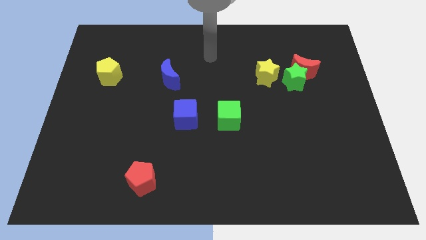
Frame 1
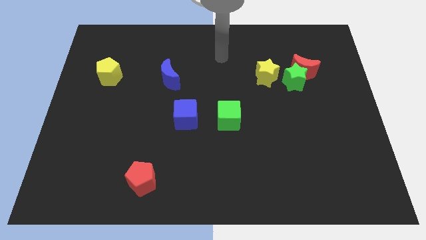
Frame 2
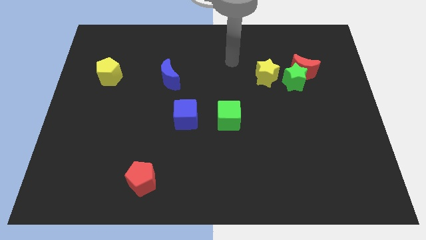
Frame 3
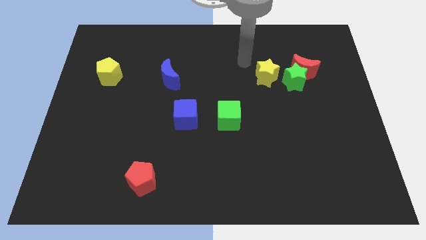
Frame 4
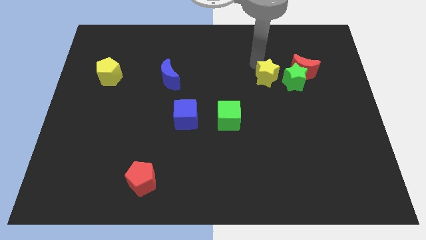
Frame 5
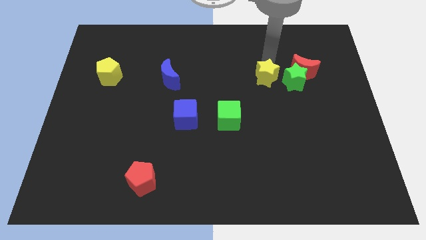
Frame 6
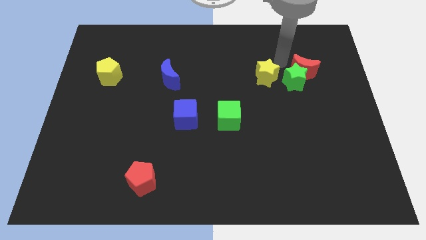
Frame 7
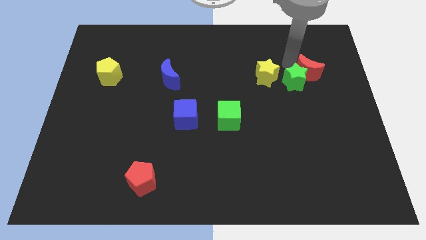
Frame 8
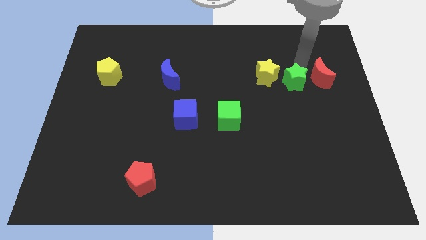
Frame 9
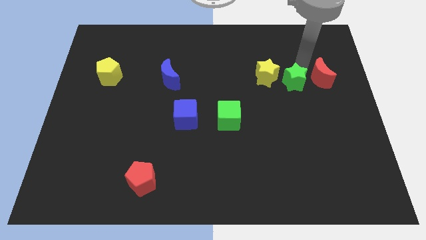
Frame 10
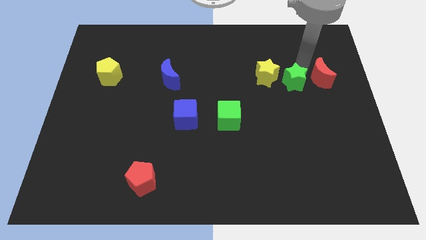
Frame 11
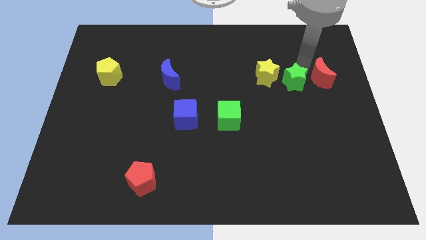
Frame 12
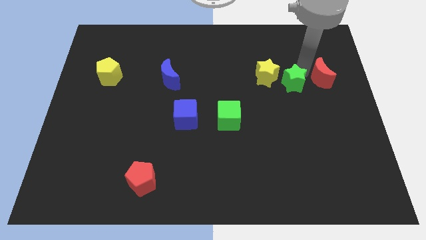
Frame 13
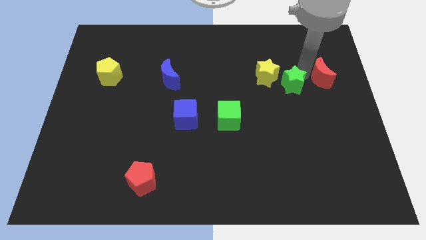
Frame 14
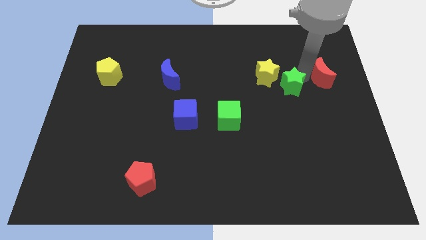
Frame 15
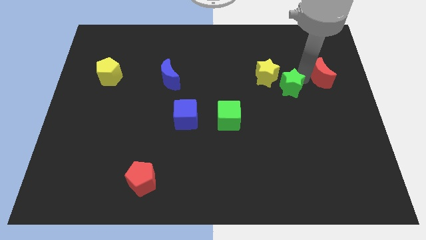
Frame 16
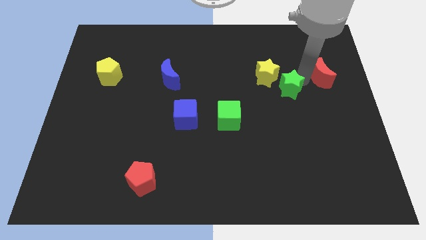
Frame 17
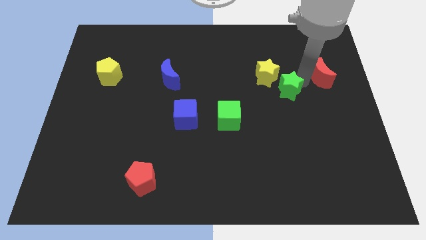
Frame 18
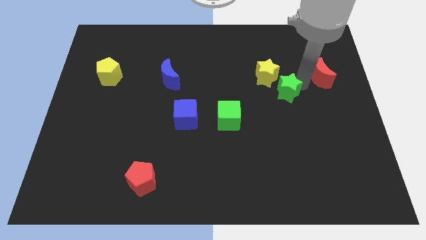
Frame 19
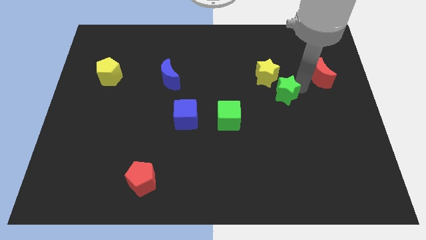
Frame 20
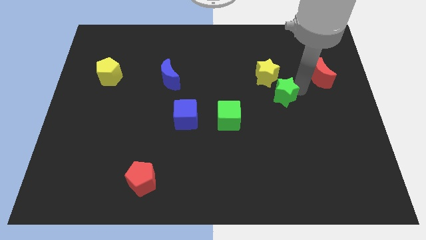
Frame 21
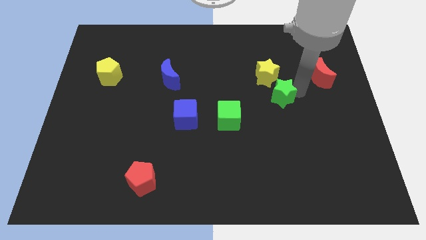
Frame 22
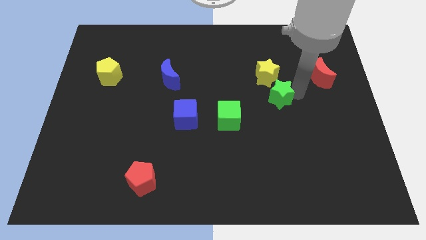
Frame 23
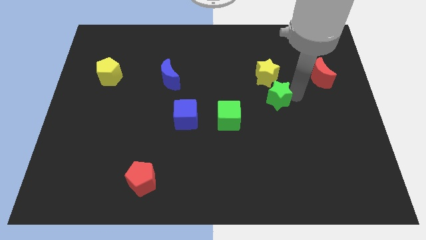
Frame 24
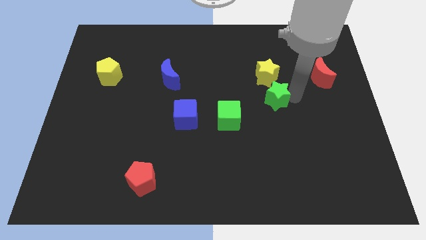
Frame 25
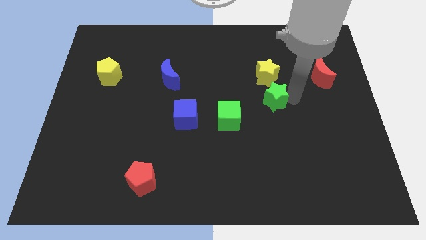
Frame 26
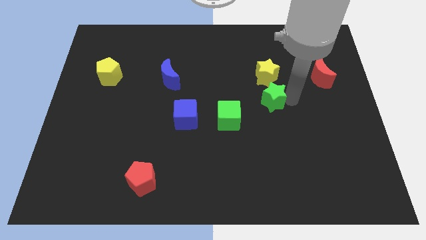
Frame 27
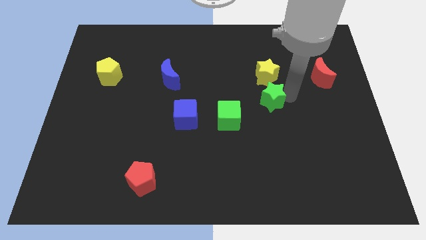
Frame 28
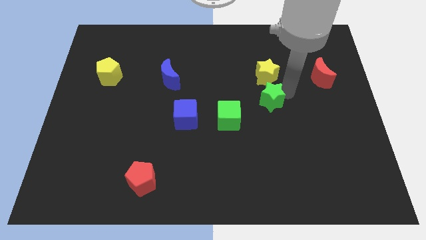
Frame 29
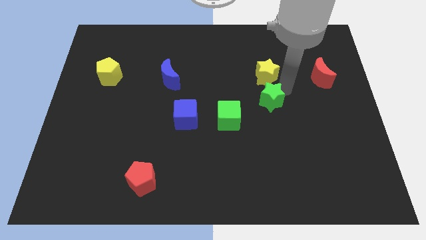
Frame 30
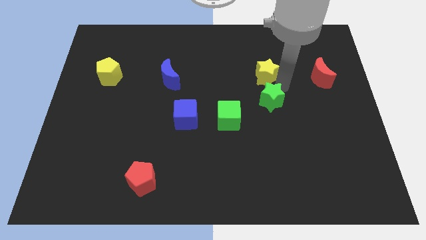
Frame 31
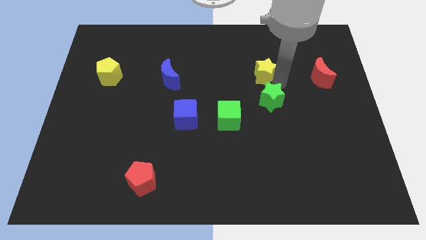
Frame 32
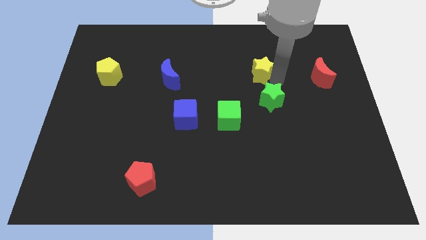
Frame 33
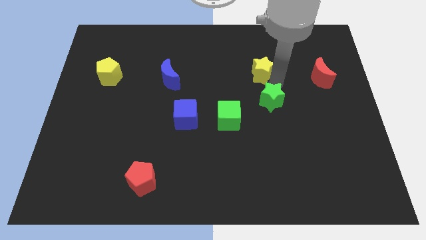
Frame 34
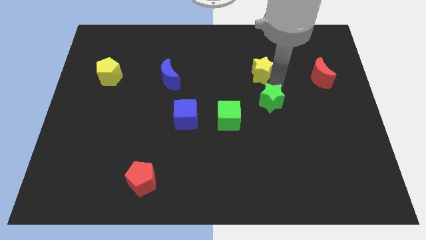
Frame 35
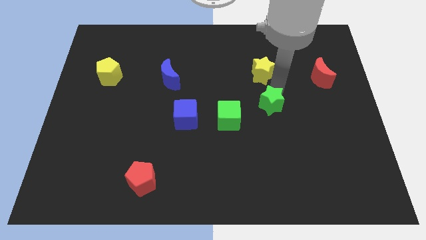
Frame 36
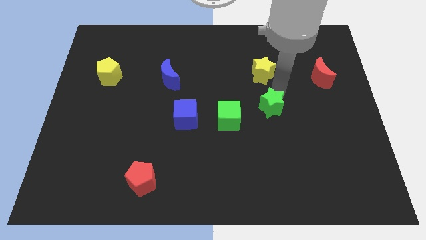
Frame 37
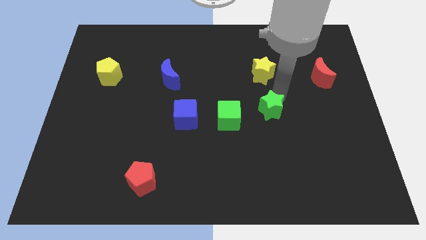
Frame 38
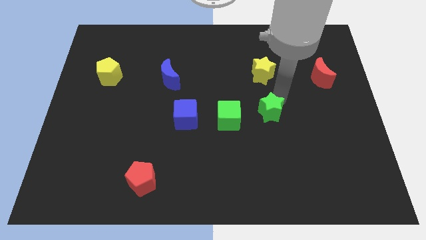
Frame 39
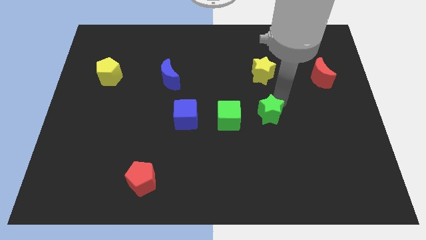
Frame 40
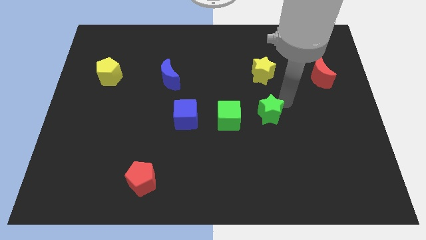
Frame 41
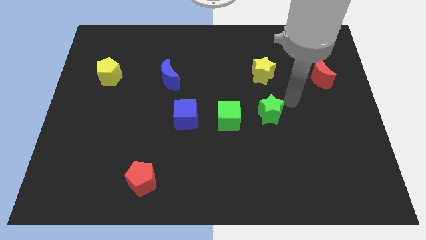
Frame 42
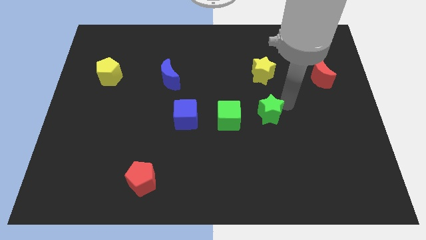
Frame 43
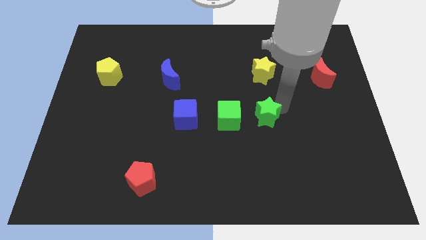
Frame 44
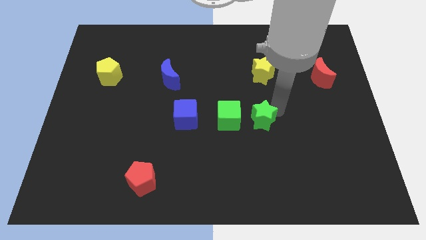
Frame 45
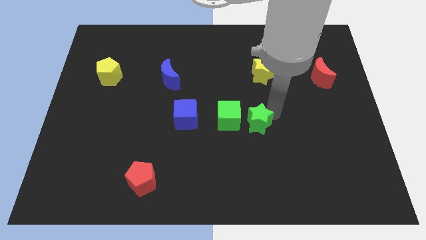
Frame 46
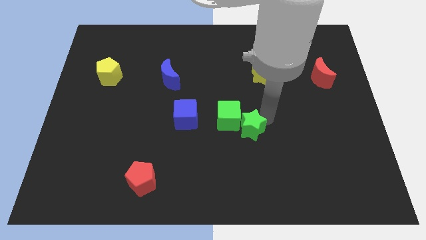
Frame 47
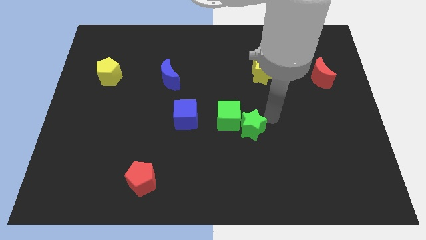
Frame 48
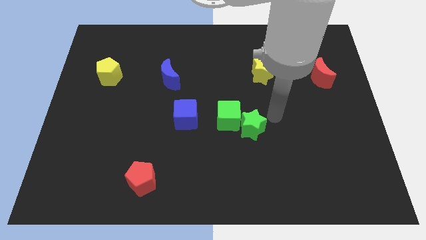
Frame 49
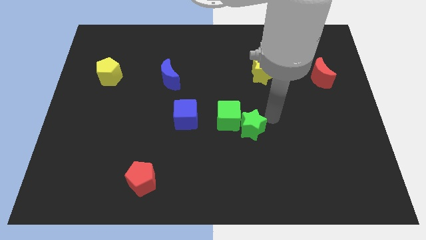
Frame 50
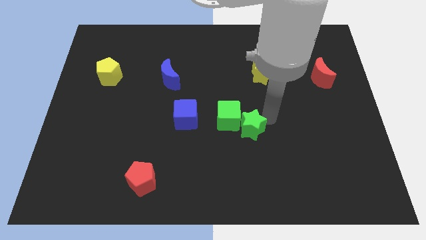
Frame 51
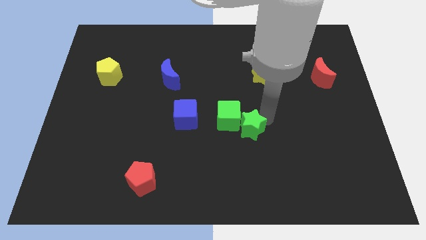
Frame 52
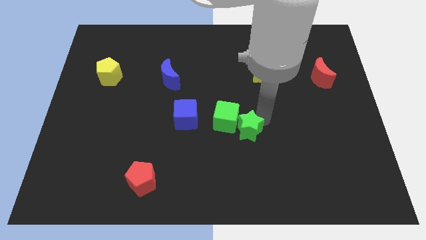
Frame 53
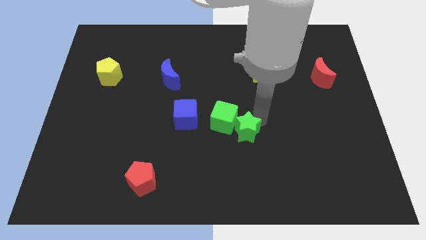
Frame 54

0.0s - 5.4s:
push the green star down and to the left

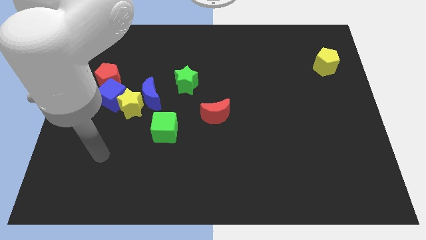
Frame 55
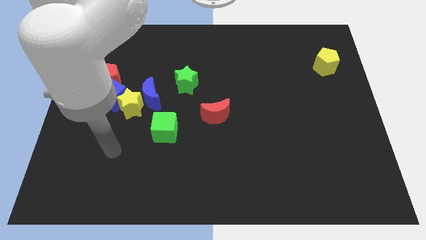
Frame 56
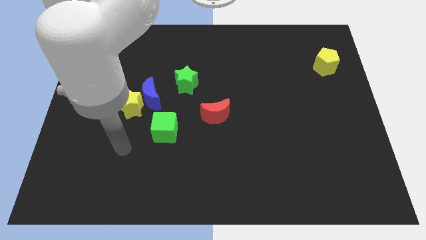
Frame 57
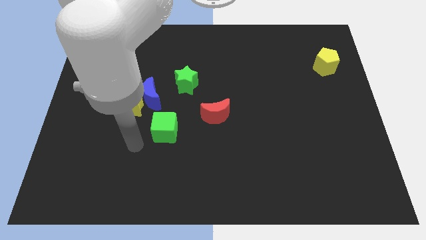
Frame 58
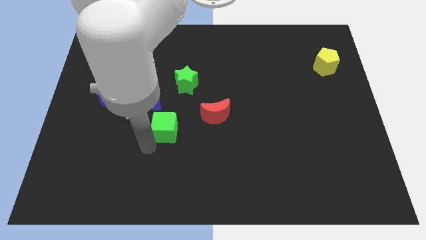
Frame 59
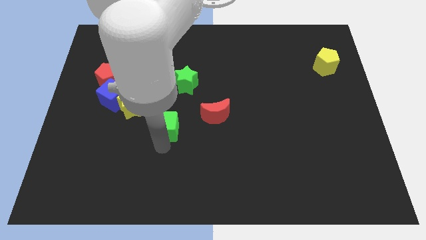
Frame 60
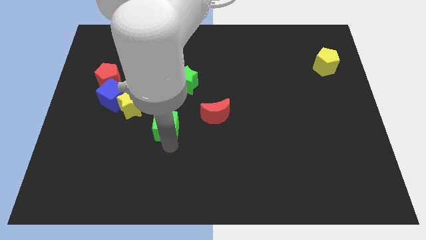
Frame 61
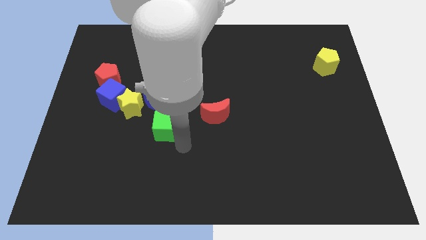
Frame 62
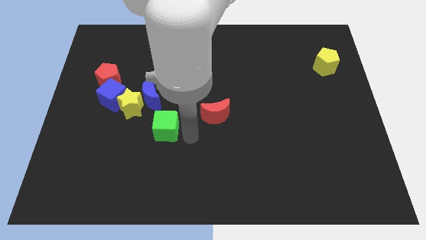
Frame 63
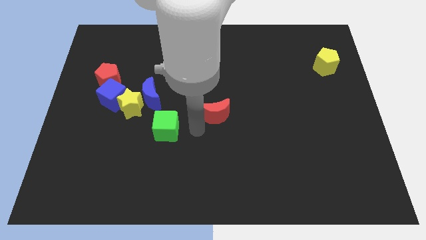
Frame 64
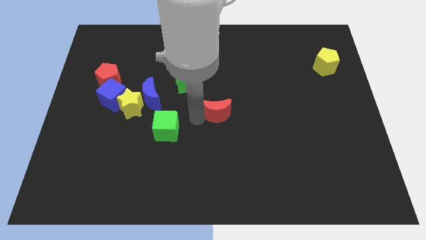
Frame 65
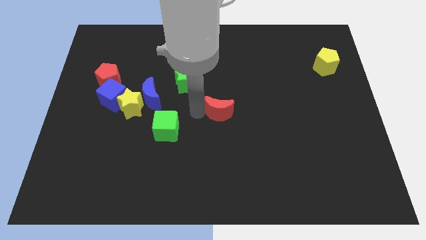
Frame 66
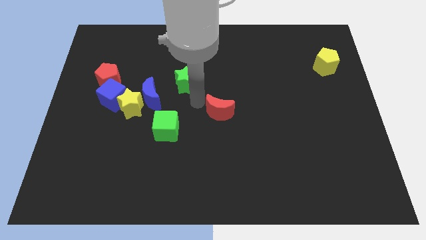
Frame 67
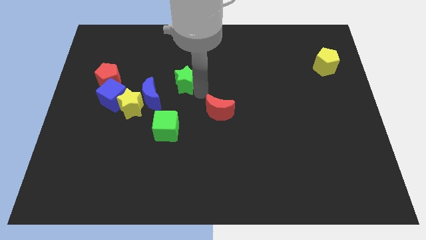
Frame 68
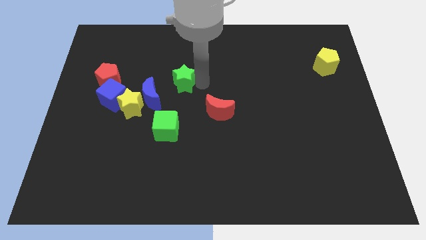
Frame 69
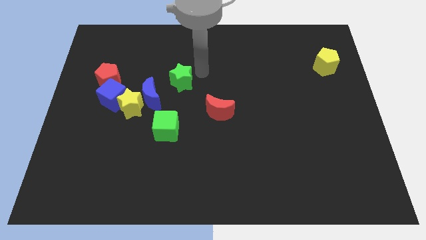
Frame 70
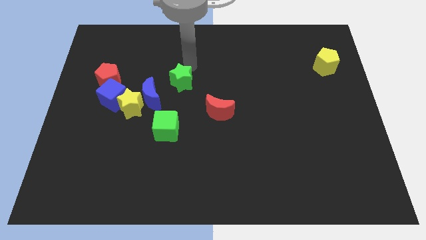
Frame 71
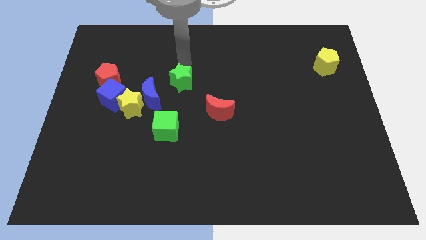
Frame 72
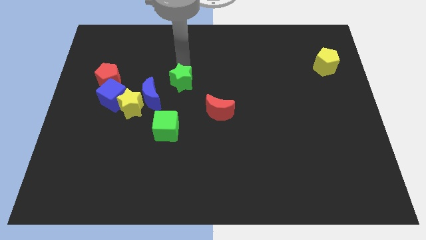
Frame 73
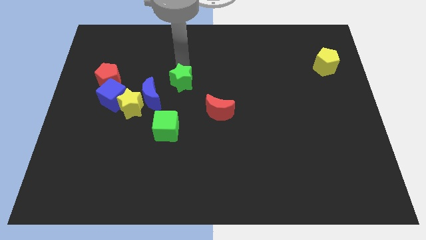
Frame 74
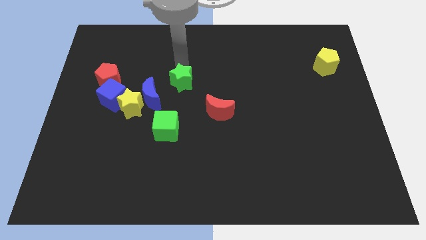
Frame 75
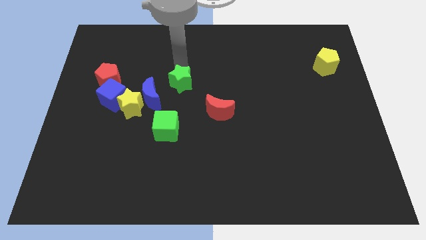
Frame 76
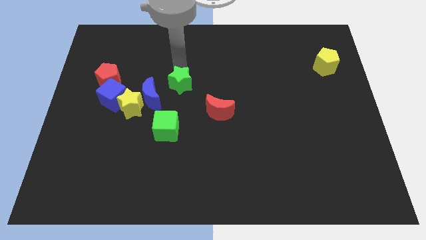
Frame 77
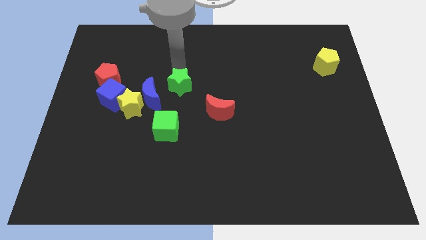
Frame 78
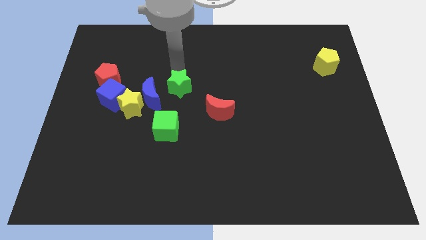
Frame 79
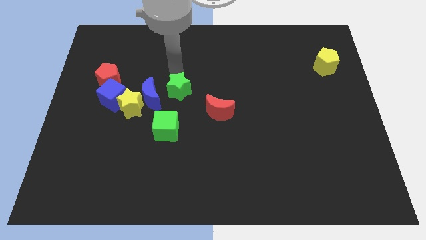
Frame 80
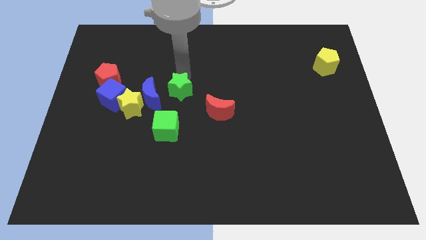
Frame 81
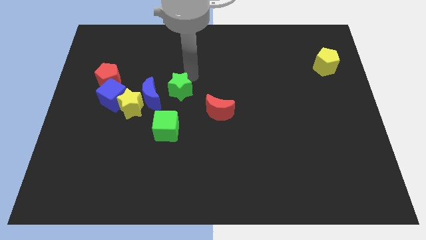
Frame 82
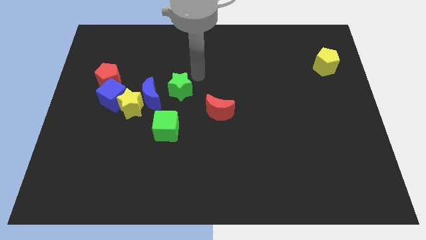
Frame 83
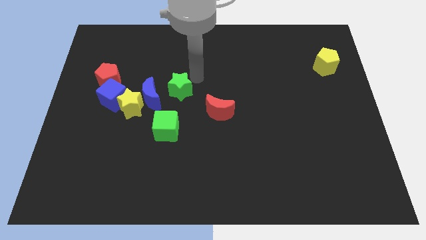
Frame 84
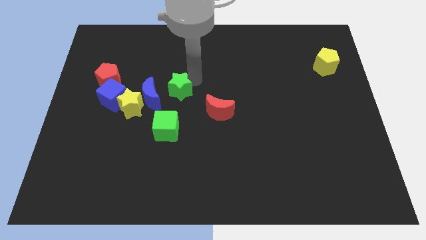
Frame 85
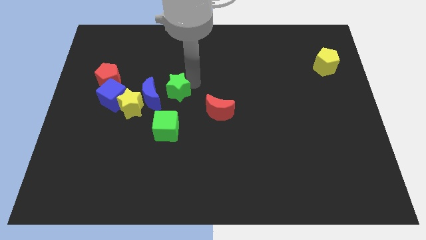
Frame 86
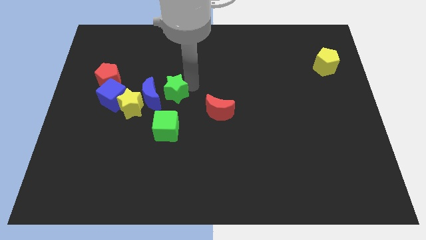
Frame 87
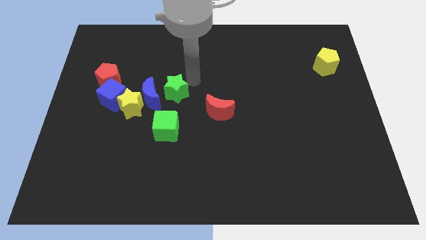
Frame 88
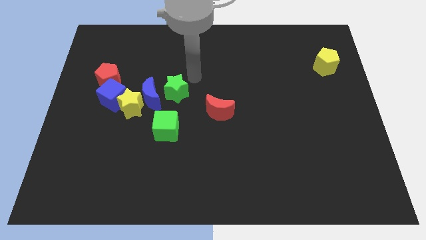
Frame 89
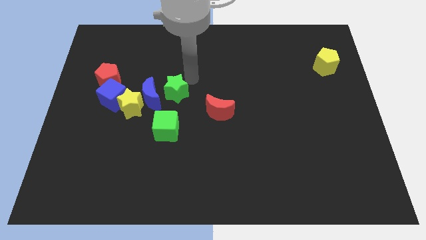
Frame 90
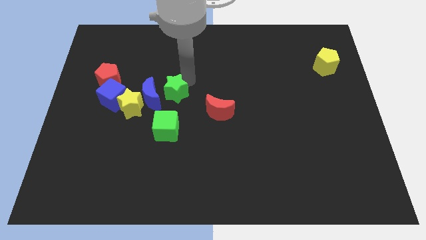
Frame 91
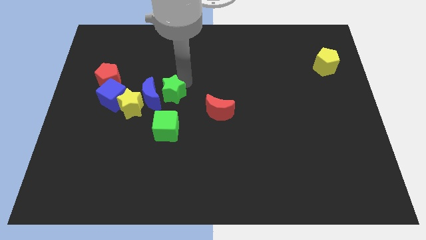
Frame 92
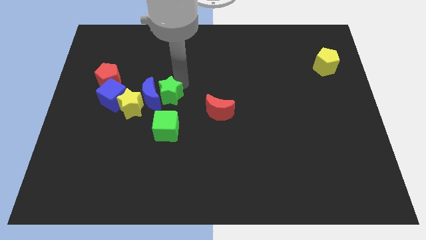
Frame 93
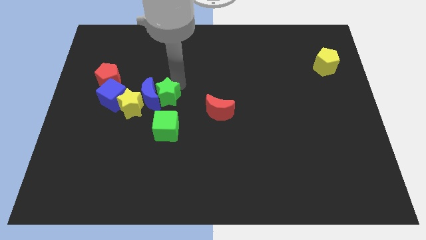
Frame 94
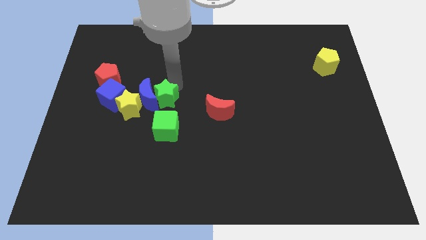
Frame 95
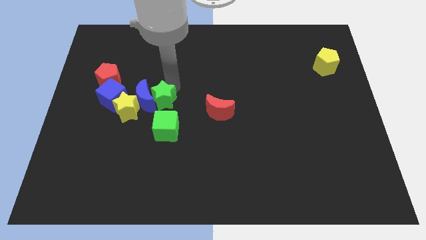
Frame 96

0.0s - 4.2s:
move the green star a little down and left
